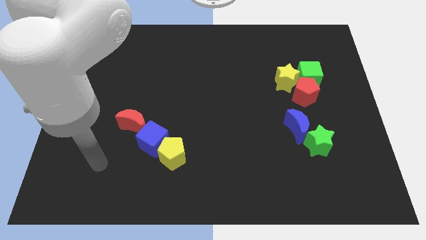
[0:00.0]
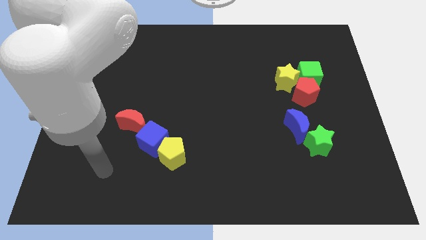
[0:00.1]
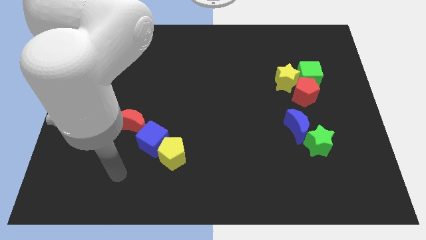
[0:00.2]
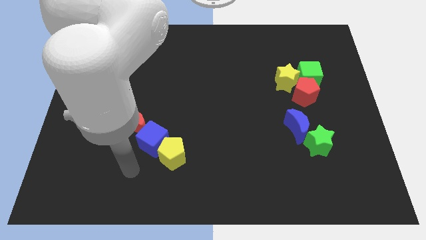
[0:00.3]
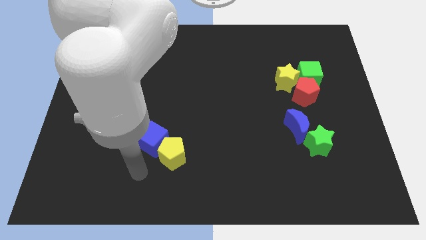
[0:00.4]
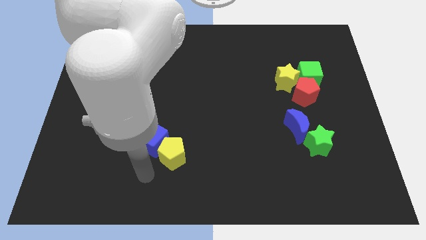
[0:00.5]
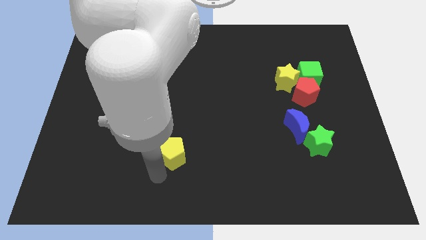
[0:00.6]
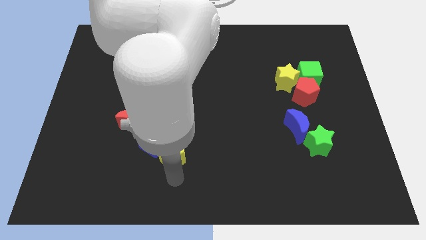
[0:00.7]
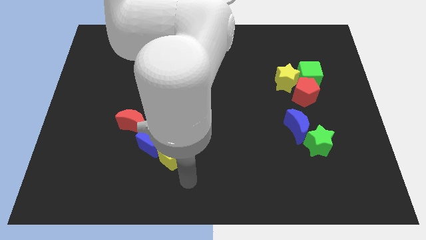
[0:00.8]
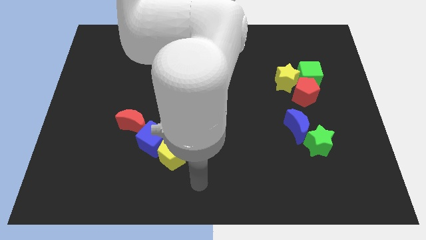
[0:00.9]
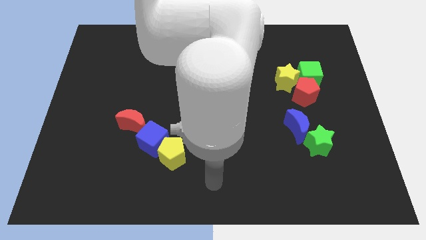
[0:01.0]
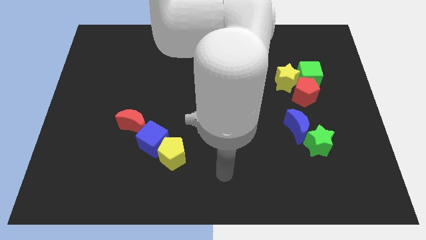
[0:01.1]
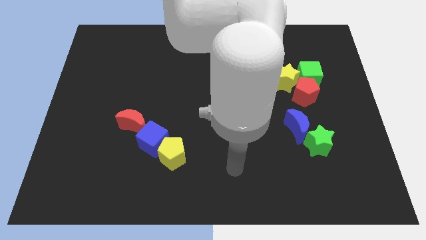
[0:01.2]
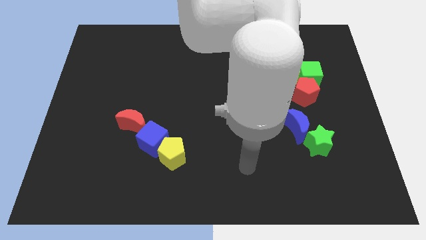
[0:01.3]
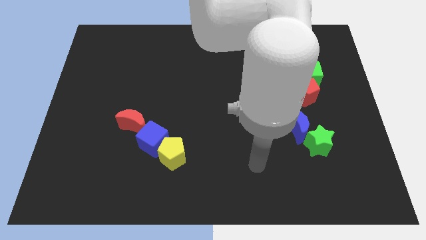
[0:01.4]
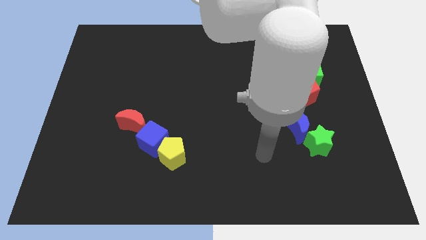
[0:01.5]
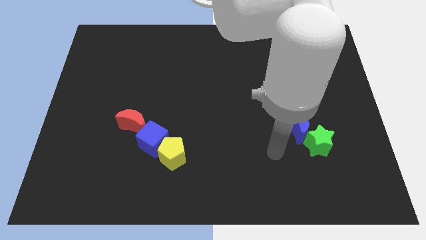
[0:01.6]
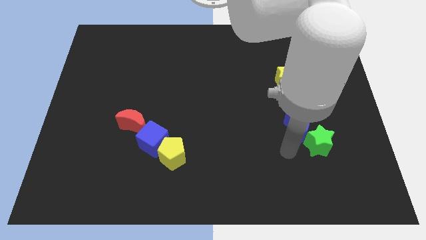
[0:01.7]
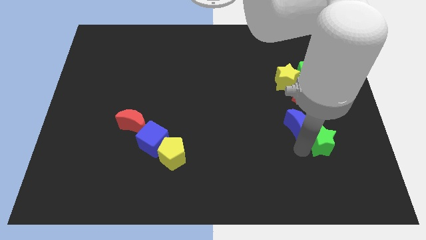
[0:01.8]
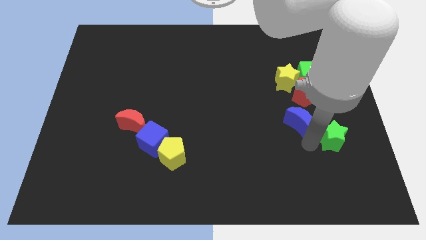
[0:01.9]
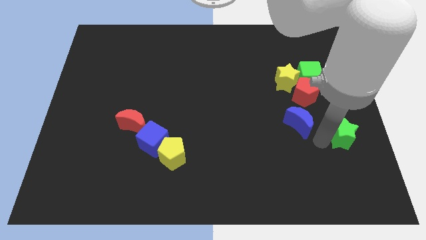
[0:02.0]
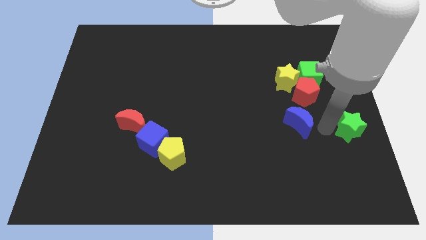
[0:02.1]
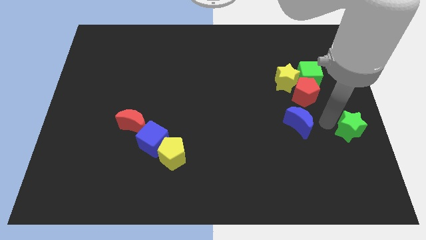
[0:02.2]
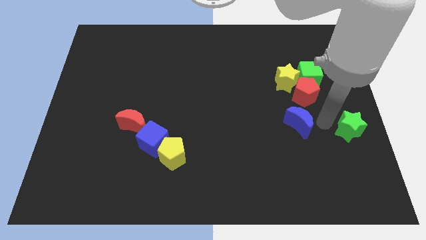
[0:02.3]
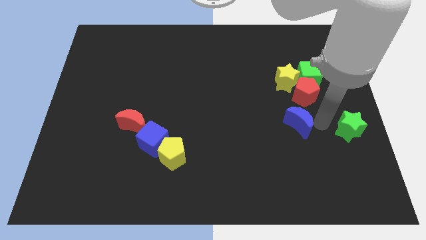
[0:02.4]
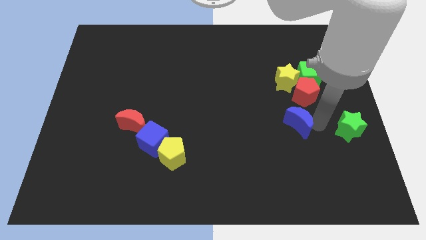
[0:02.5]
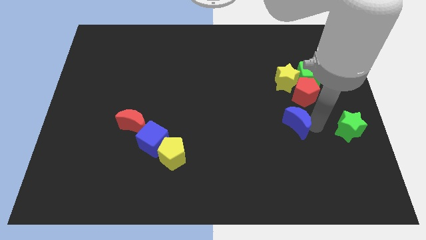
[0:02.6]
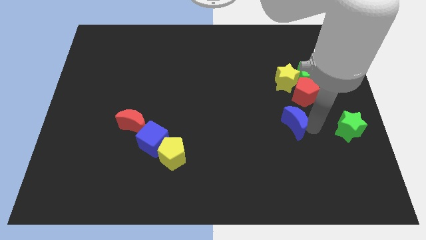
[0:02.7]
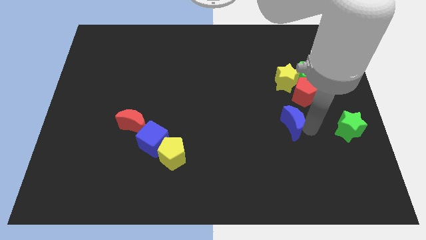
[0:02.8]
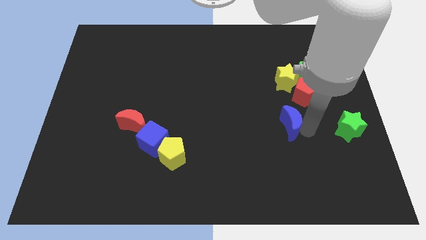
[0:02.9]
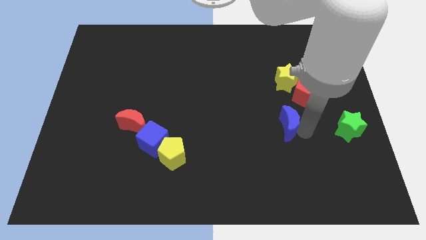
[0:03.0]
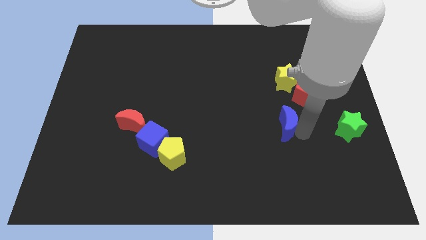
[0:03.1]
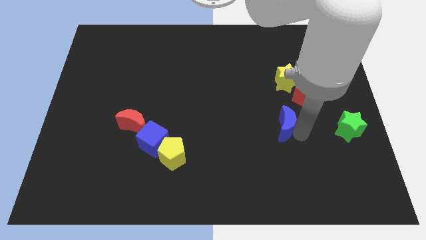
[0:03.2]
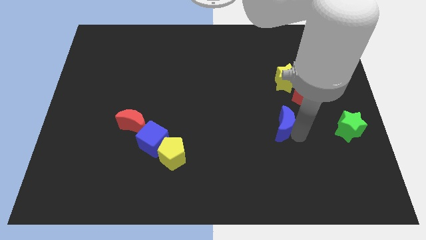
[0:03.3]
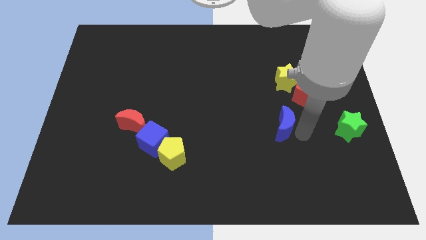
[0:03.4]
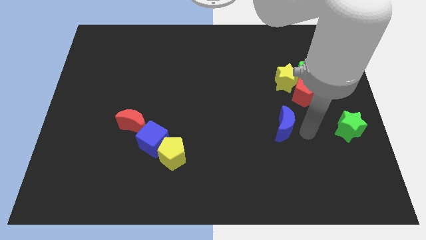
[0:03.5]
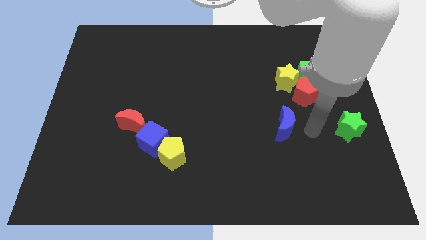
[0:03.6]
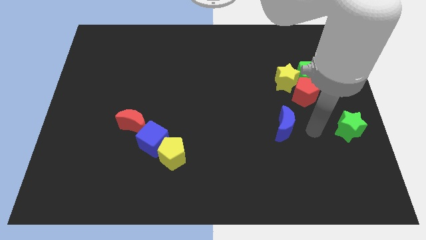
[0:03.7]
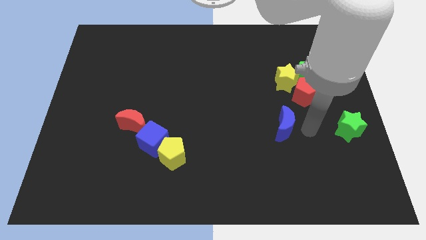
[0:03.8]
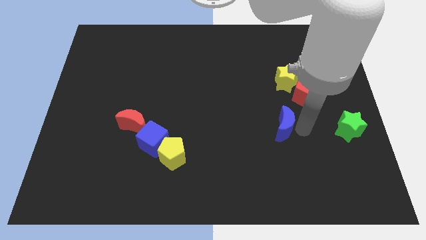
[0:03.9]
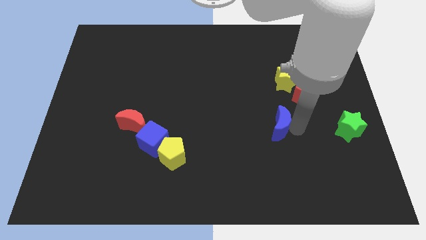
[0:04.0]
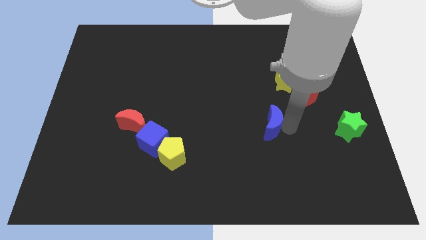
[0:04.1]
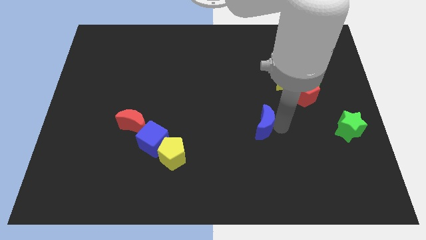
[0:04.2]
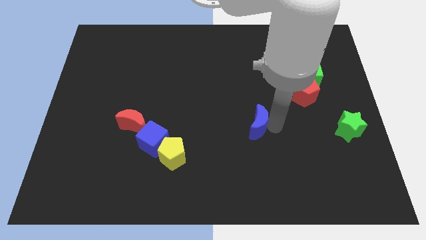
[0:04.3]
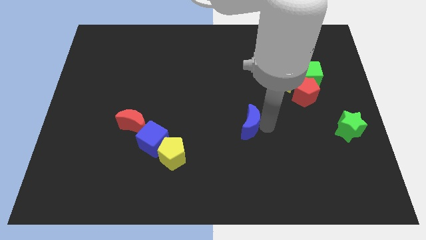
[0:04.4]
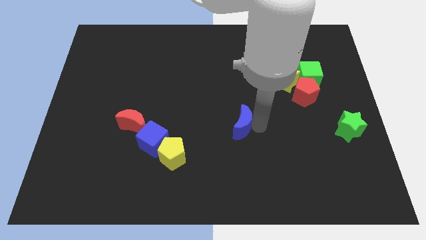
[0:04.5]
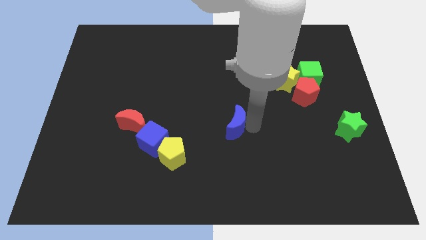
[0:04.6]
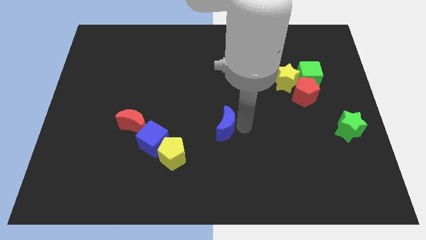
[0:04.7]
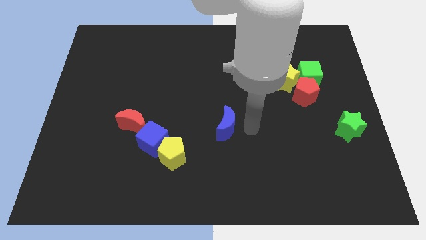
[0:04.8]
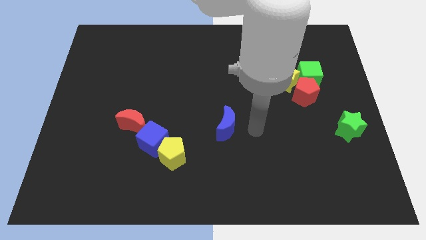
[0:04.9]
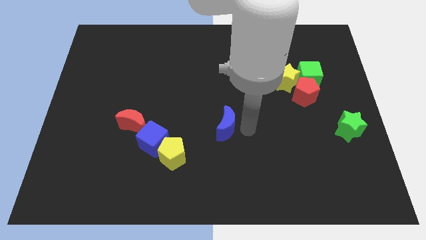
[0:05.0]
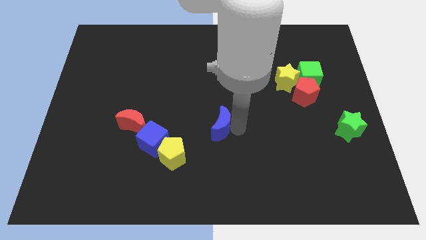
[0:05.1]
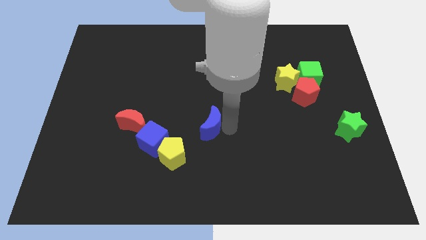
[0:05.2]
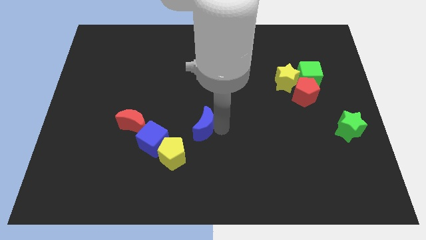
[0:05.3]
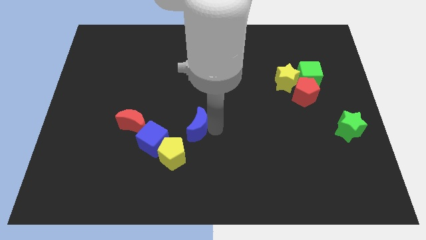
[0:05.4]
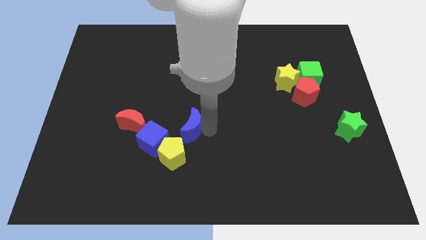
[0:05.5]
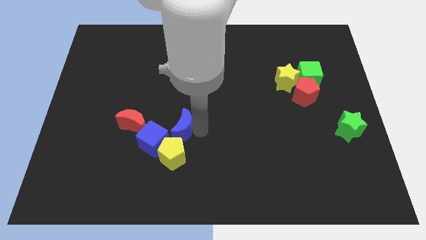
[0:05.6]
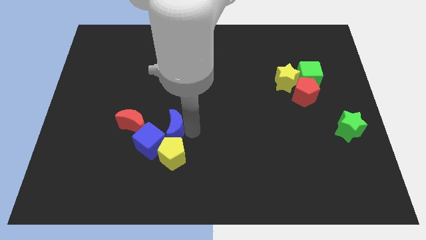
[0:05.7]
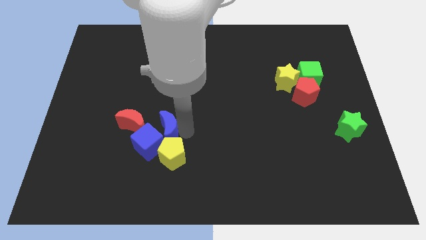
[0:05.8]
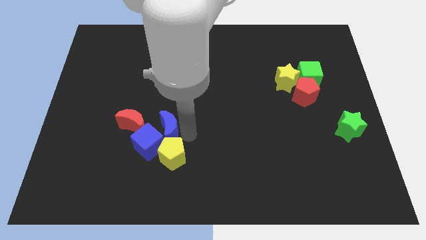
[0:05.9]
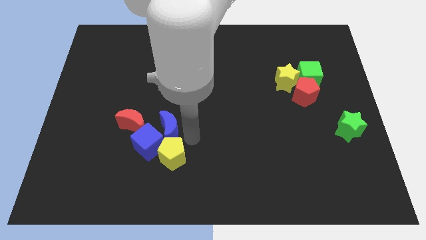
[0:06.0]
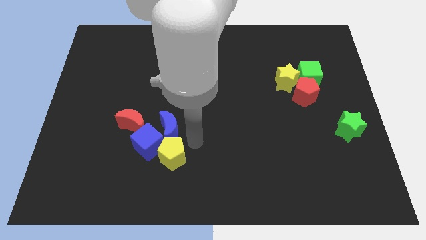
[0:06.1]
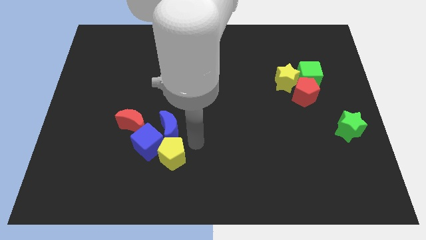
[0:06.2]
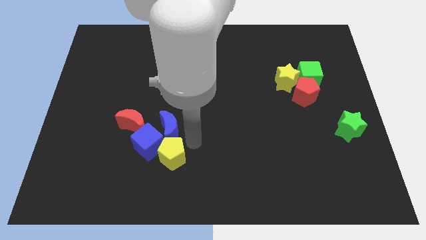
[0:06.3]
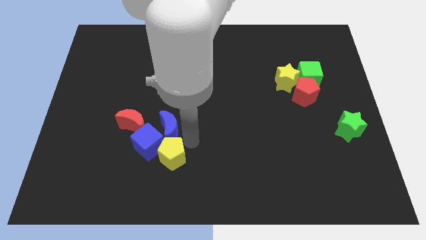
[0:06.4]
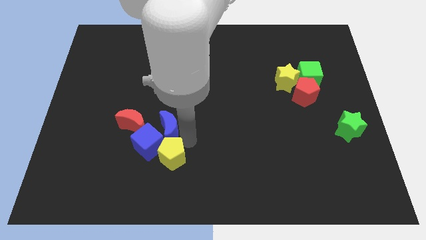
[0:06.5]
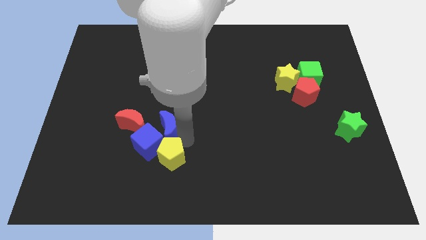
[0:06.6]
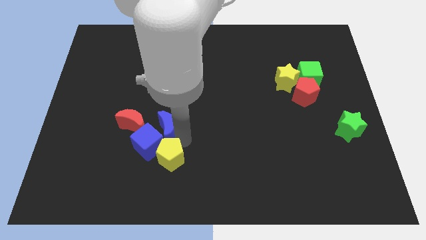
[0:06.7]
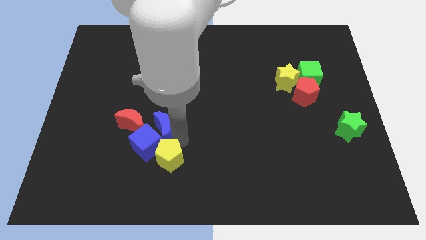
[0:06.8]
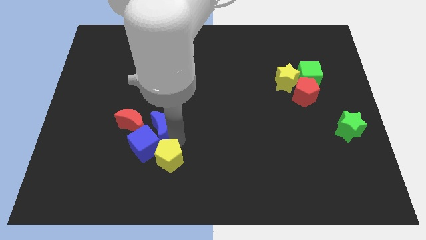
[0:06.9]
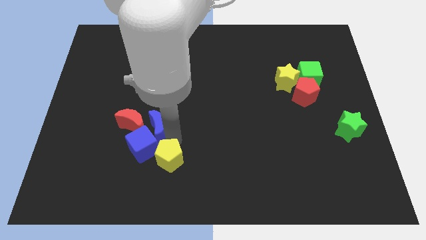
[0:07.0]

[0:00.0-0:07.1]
push the blue moon next to the red moon
